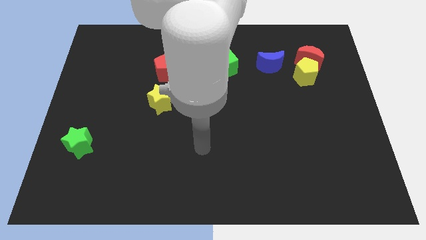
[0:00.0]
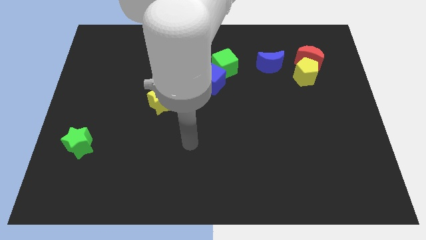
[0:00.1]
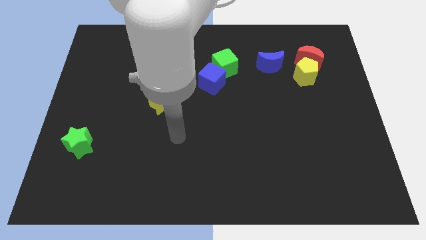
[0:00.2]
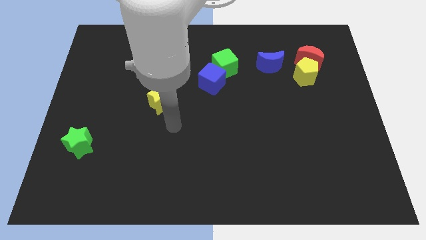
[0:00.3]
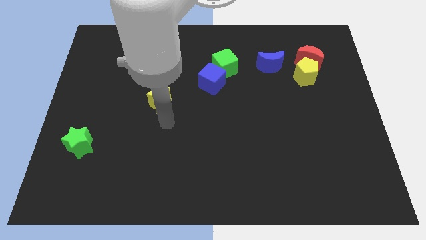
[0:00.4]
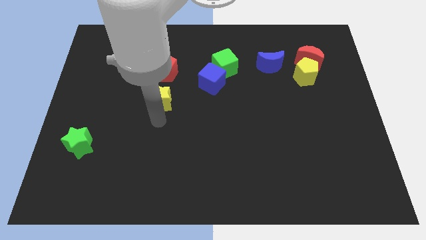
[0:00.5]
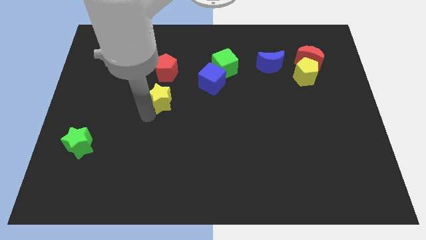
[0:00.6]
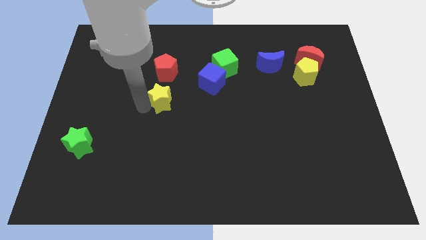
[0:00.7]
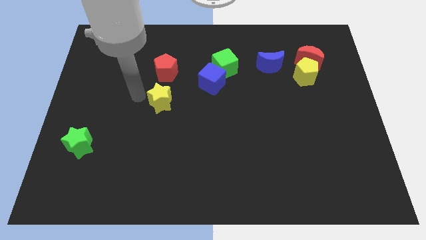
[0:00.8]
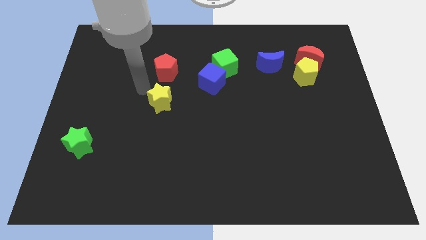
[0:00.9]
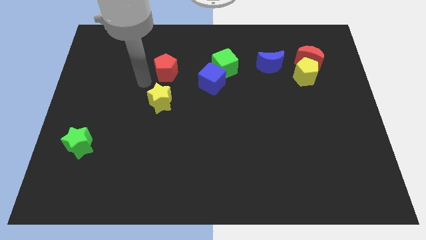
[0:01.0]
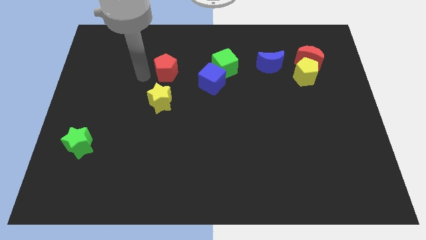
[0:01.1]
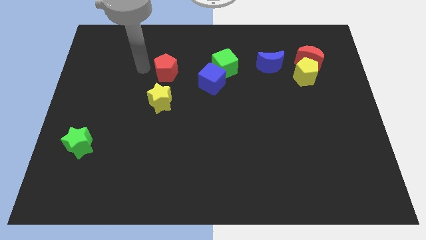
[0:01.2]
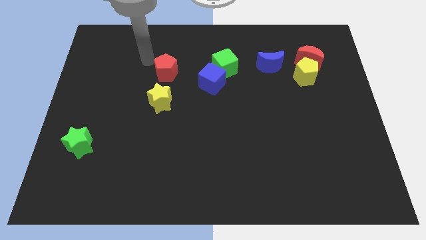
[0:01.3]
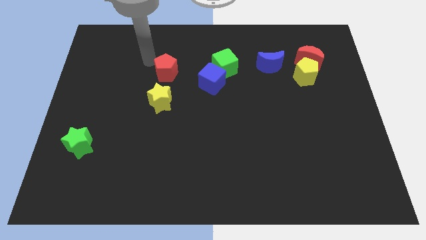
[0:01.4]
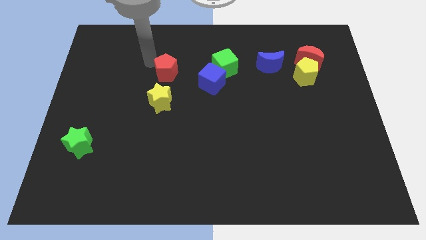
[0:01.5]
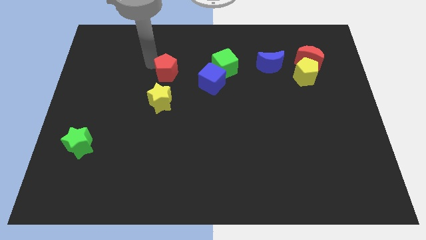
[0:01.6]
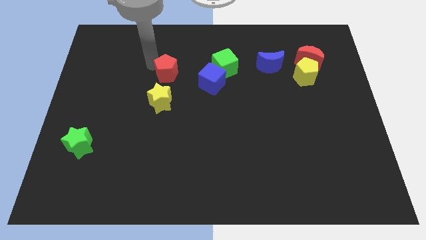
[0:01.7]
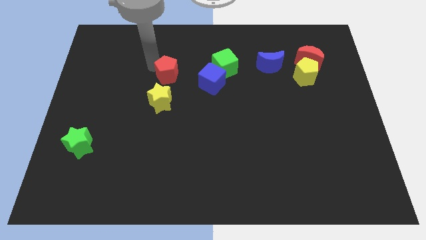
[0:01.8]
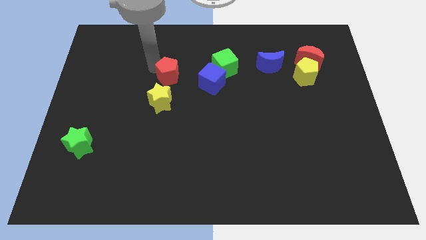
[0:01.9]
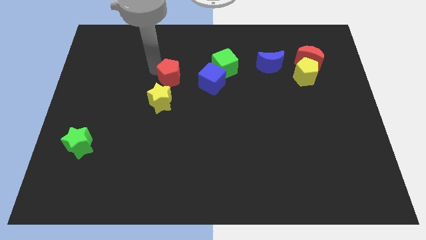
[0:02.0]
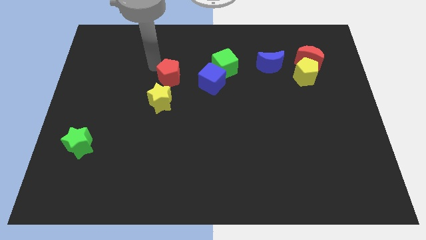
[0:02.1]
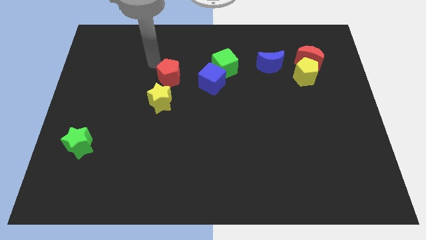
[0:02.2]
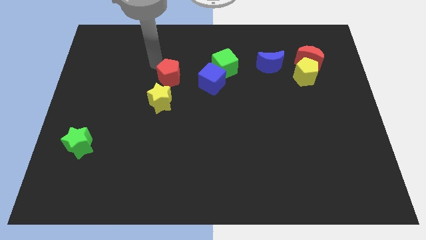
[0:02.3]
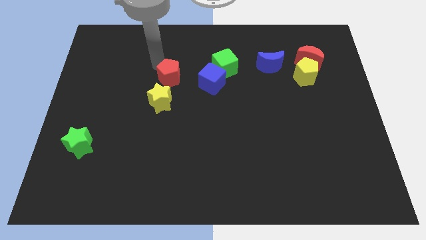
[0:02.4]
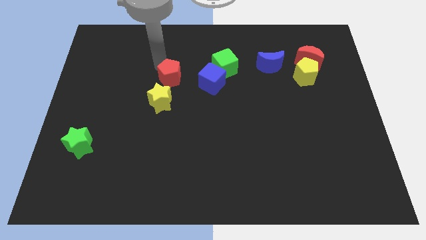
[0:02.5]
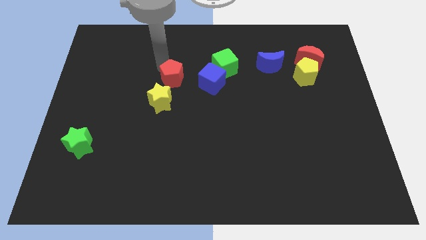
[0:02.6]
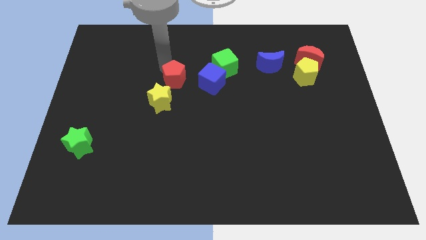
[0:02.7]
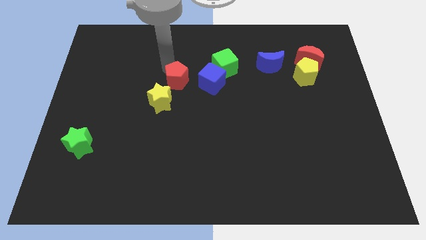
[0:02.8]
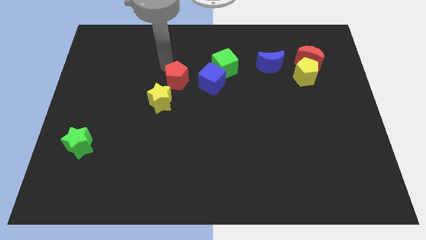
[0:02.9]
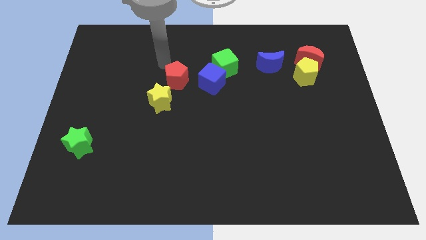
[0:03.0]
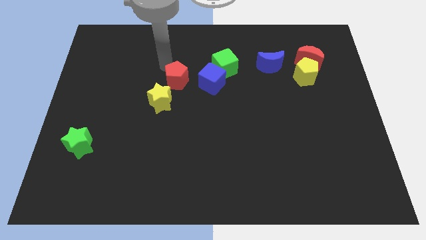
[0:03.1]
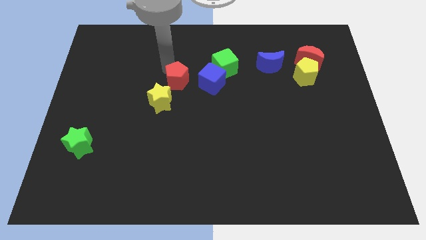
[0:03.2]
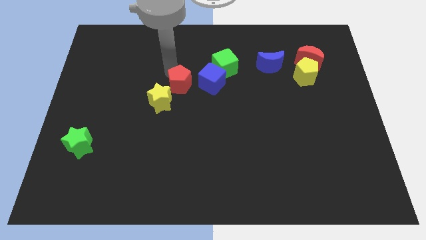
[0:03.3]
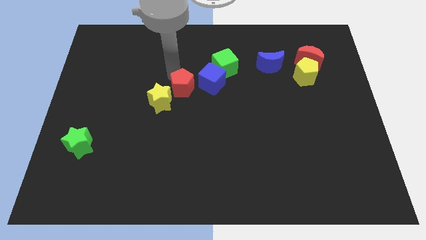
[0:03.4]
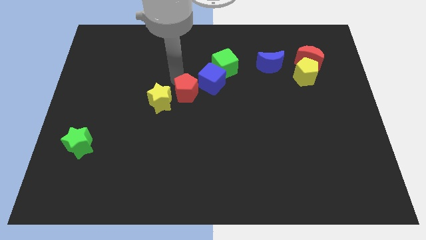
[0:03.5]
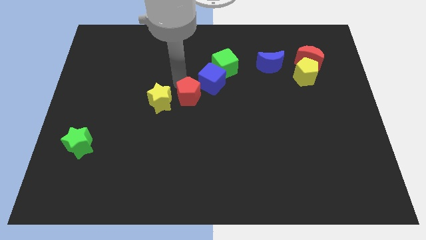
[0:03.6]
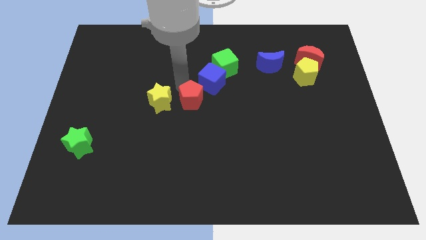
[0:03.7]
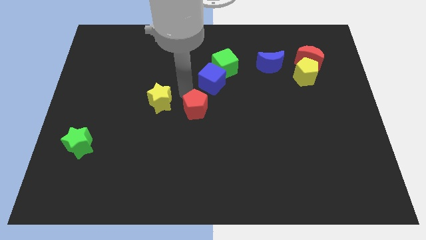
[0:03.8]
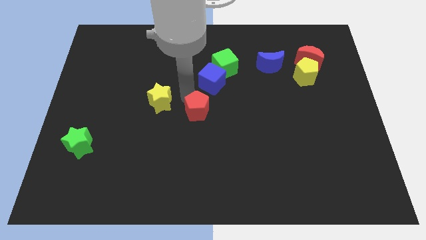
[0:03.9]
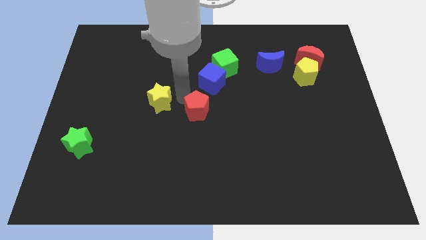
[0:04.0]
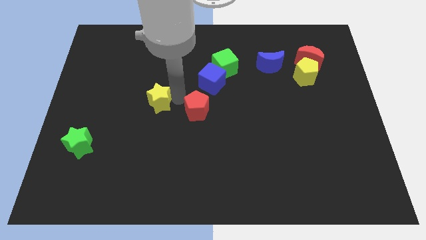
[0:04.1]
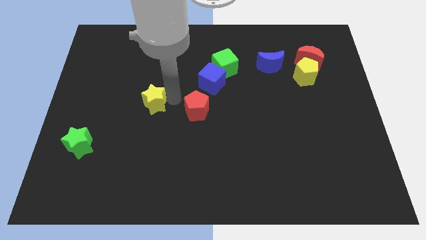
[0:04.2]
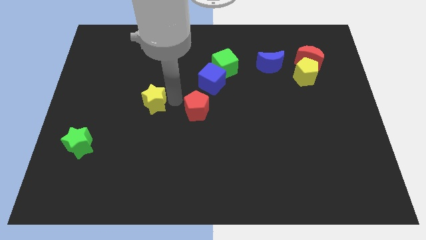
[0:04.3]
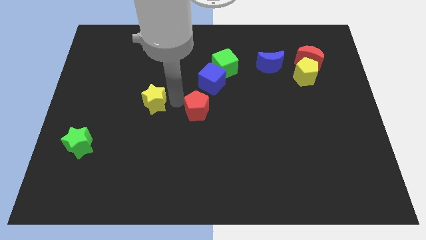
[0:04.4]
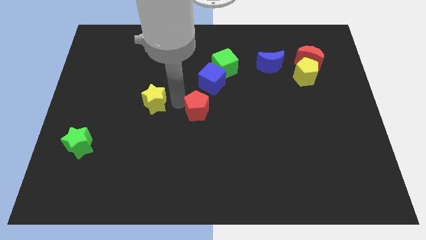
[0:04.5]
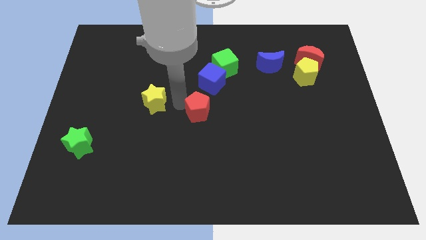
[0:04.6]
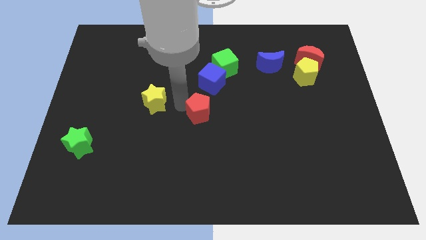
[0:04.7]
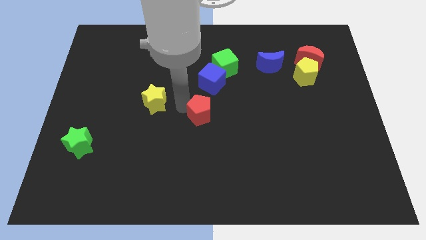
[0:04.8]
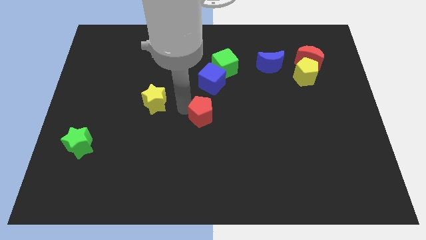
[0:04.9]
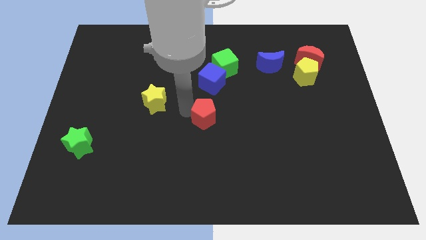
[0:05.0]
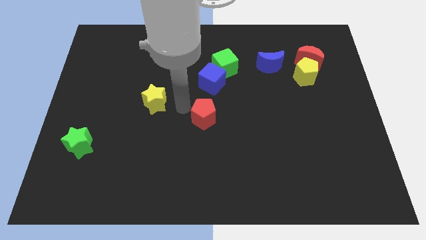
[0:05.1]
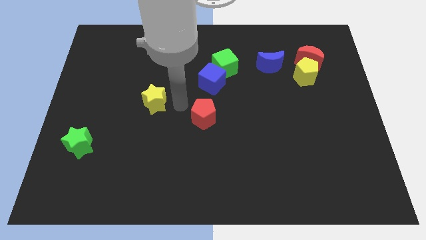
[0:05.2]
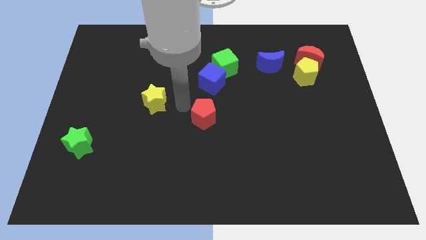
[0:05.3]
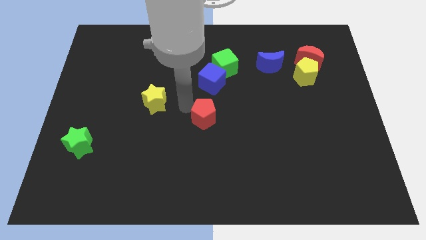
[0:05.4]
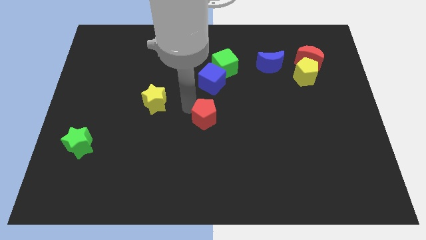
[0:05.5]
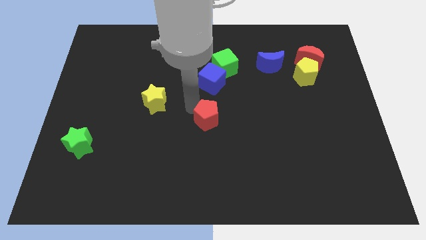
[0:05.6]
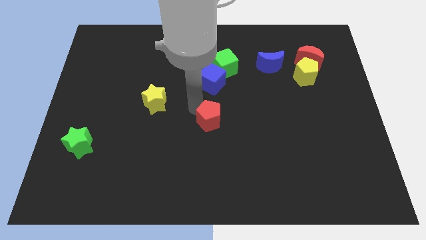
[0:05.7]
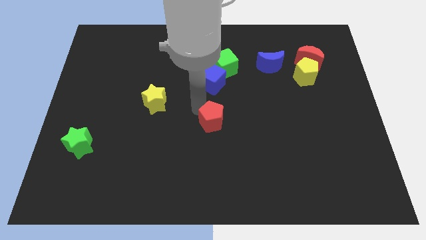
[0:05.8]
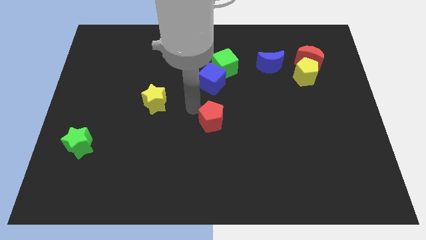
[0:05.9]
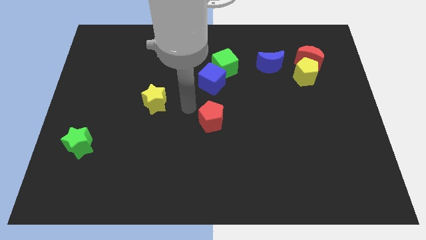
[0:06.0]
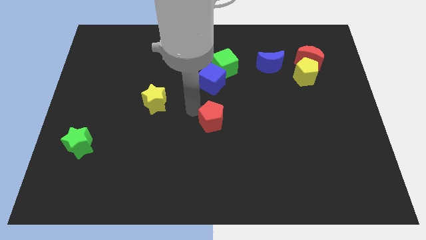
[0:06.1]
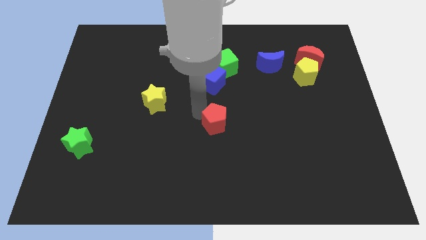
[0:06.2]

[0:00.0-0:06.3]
slide the red pentagon downwards and right

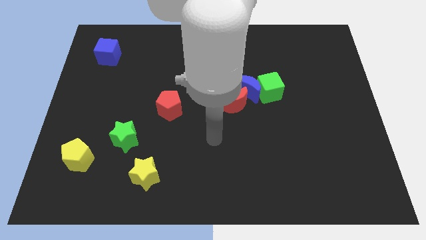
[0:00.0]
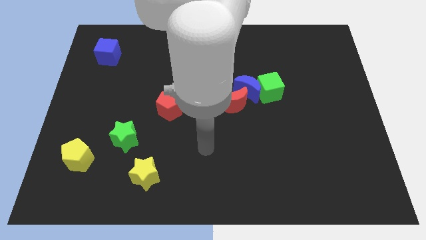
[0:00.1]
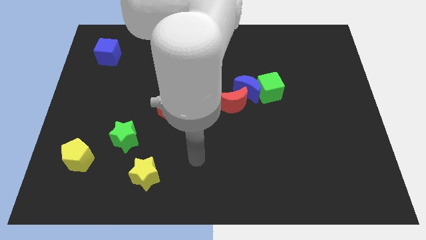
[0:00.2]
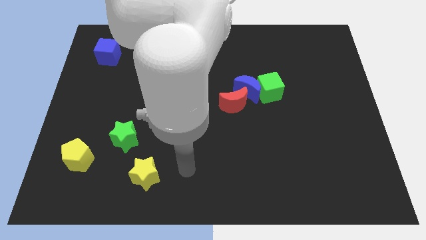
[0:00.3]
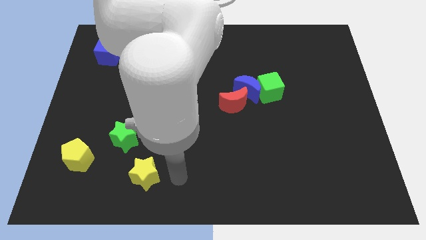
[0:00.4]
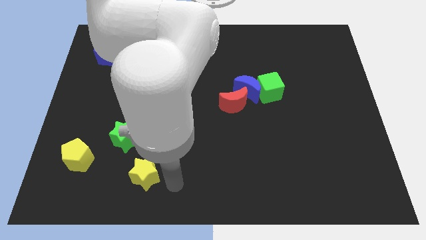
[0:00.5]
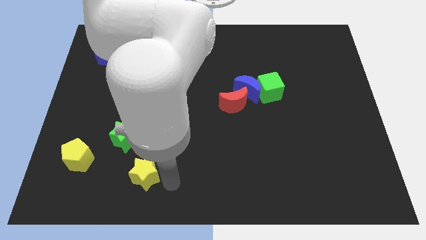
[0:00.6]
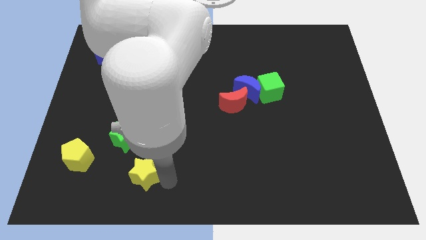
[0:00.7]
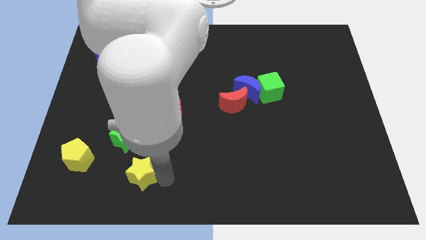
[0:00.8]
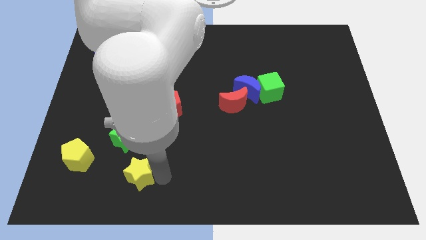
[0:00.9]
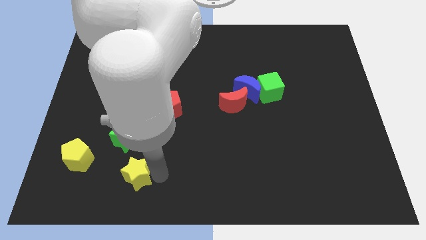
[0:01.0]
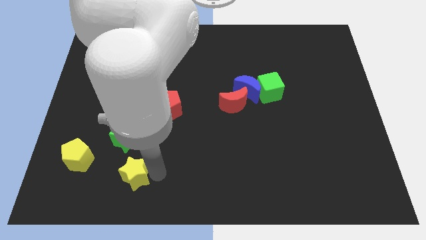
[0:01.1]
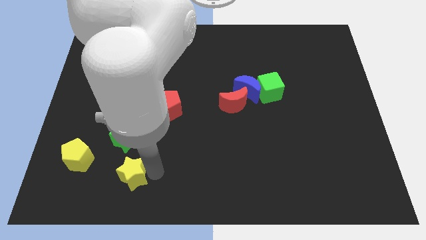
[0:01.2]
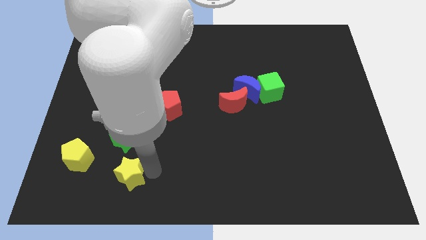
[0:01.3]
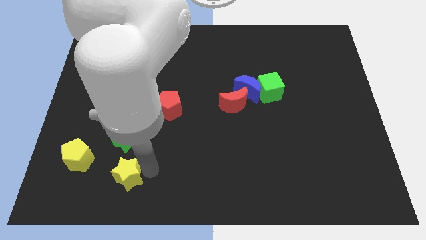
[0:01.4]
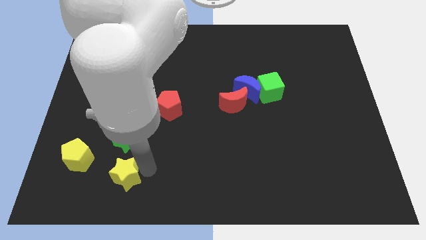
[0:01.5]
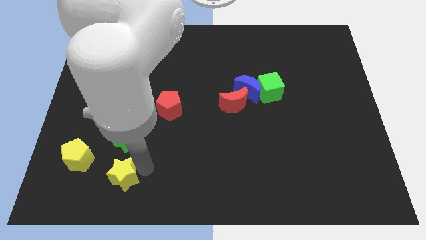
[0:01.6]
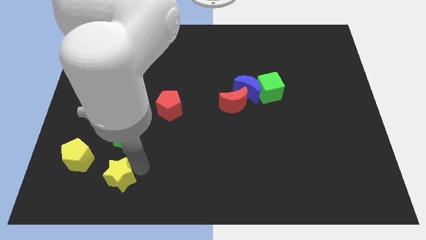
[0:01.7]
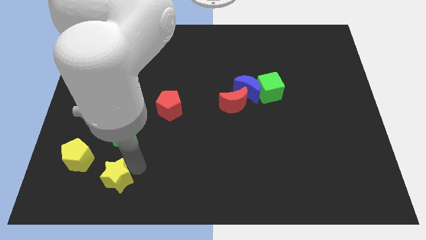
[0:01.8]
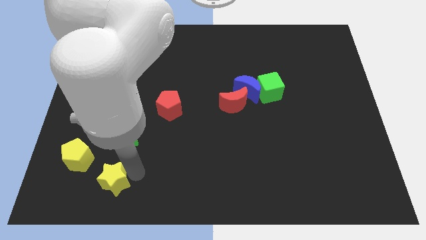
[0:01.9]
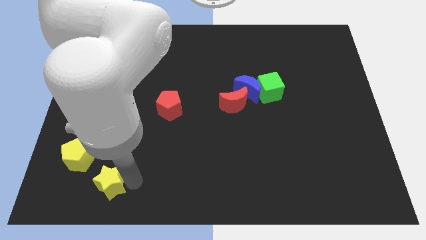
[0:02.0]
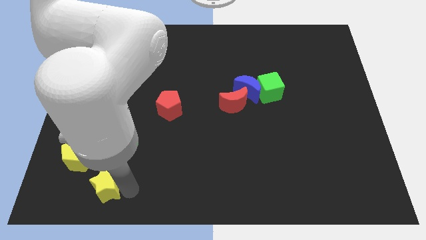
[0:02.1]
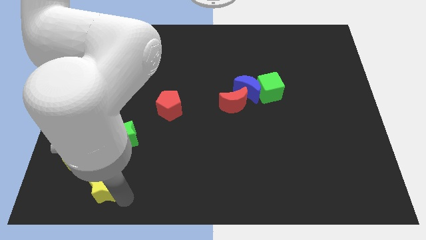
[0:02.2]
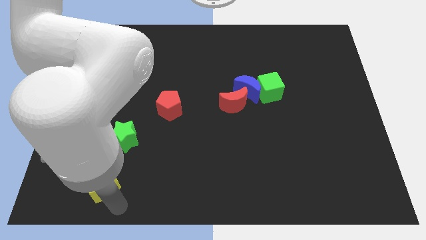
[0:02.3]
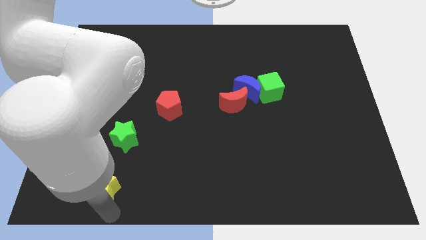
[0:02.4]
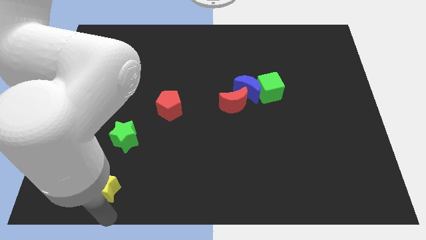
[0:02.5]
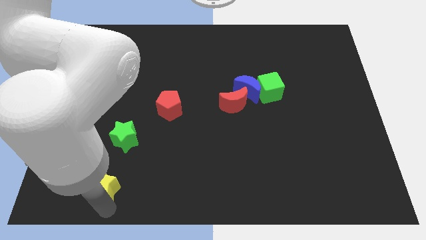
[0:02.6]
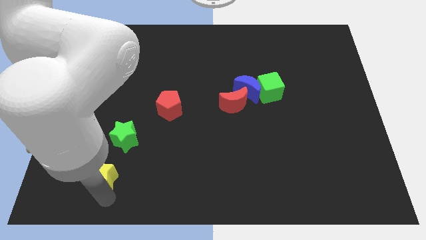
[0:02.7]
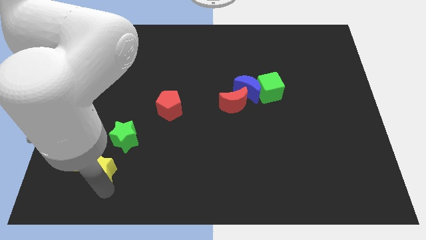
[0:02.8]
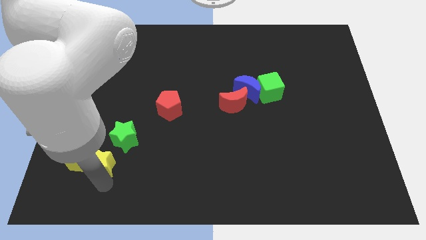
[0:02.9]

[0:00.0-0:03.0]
slightly push the yellow star upwards and then to the left
